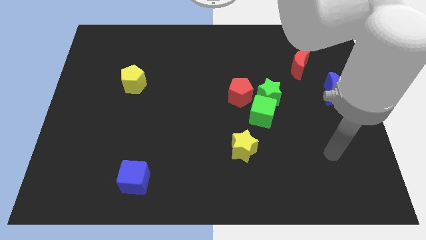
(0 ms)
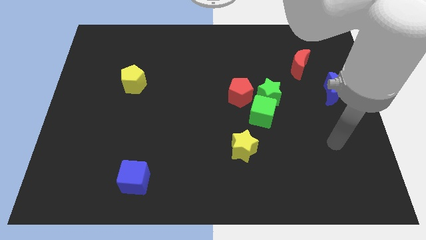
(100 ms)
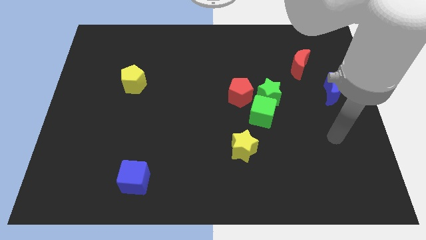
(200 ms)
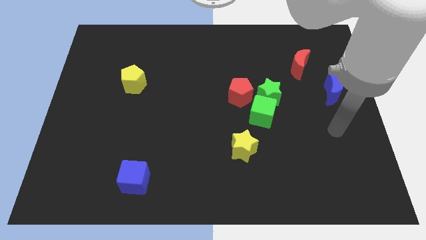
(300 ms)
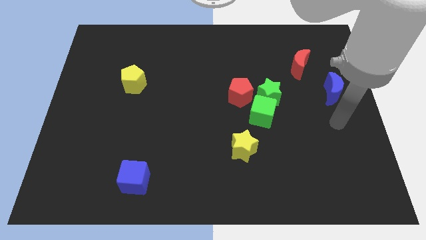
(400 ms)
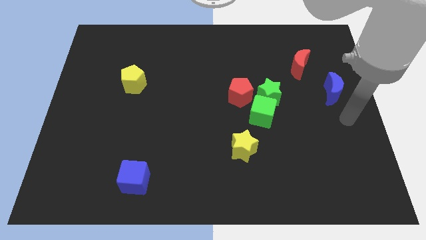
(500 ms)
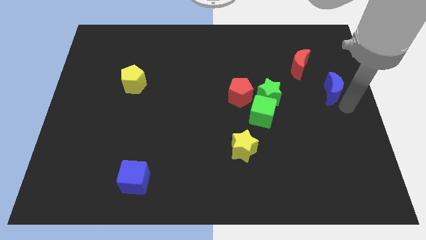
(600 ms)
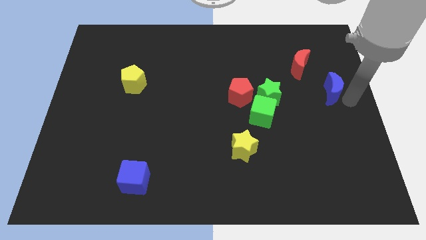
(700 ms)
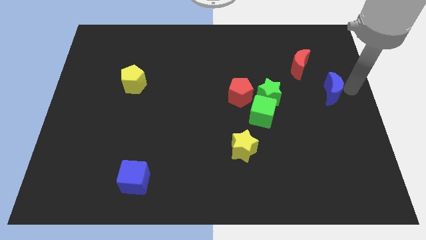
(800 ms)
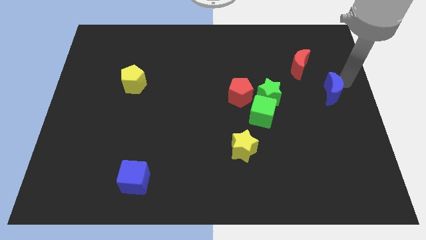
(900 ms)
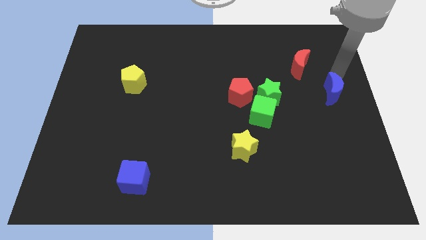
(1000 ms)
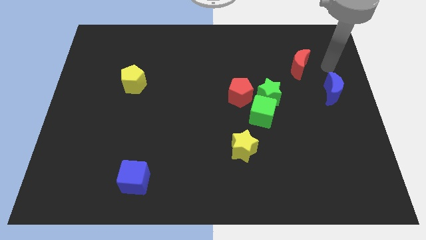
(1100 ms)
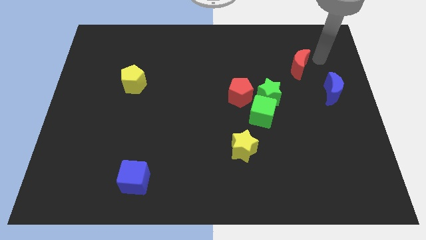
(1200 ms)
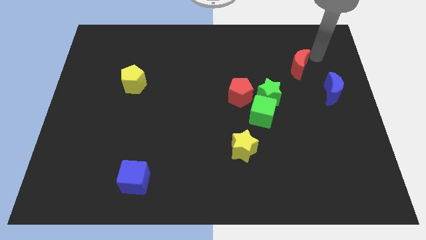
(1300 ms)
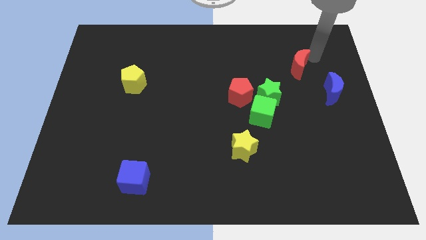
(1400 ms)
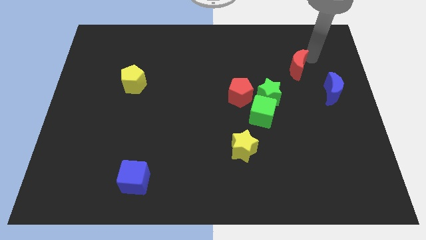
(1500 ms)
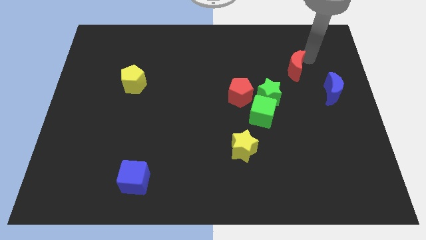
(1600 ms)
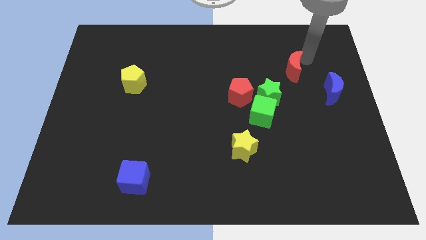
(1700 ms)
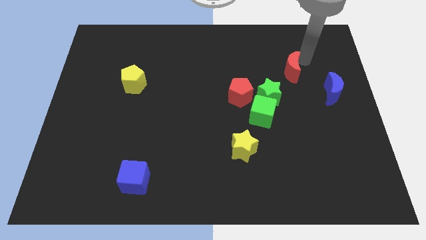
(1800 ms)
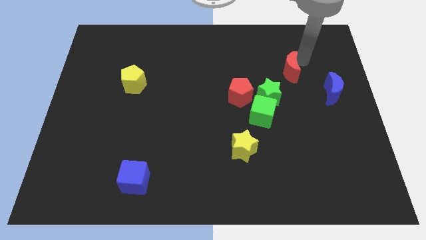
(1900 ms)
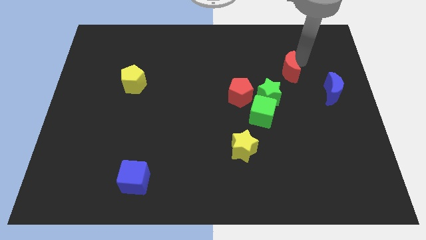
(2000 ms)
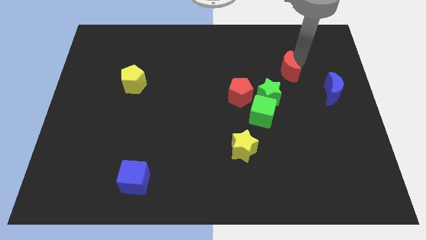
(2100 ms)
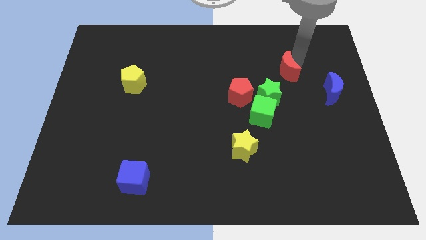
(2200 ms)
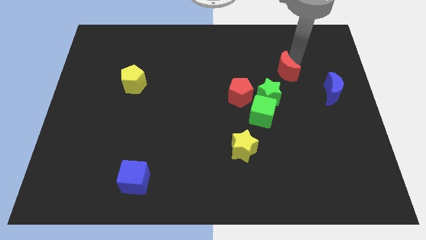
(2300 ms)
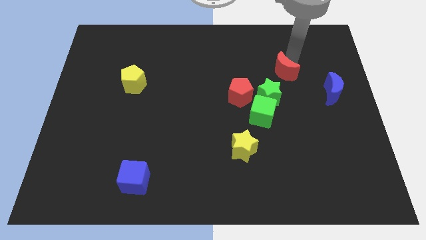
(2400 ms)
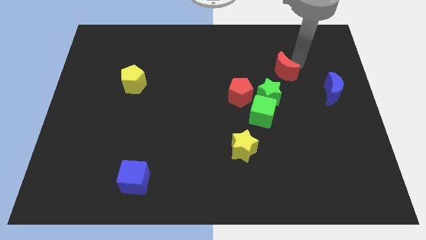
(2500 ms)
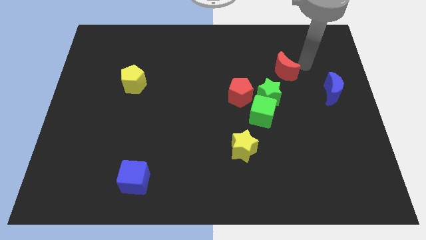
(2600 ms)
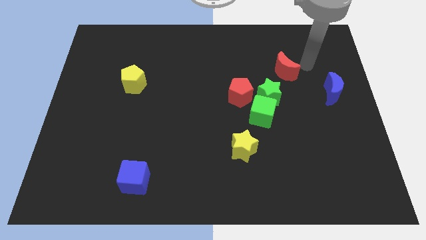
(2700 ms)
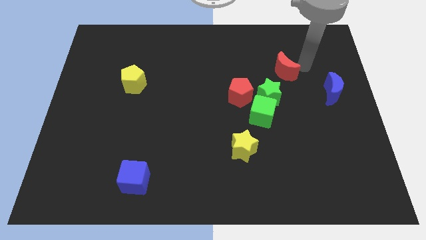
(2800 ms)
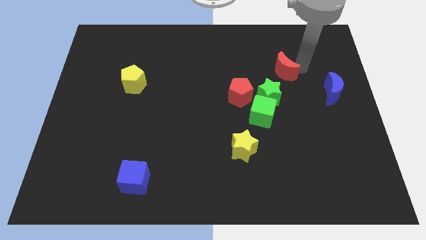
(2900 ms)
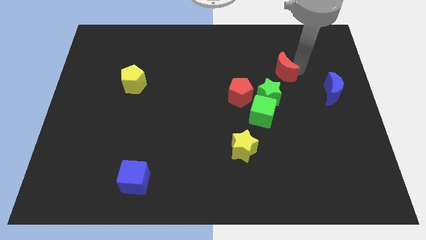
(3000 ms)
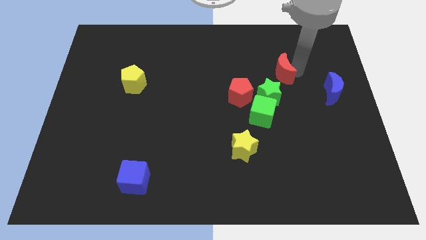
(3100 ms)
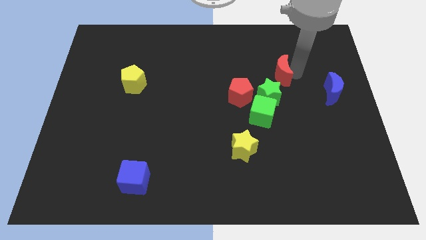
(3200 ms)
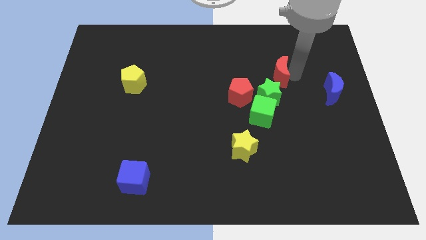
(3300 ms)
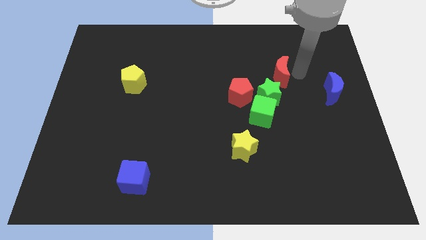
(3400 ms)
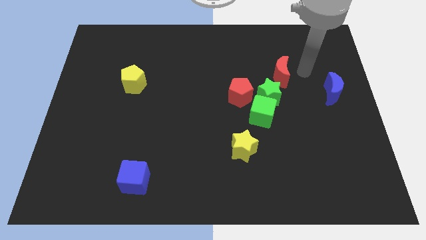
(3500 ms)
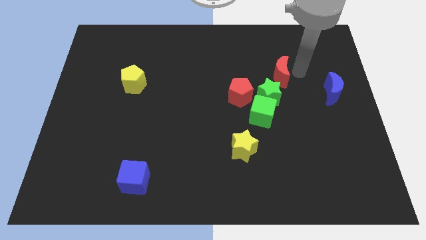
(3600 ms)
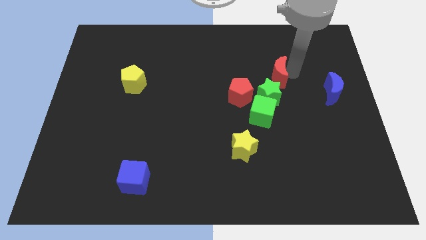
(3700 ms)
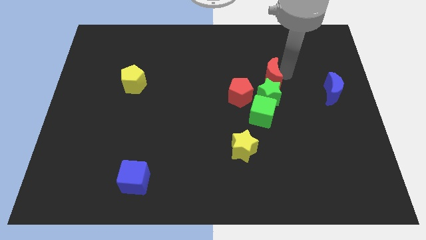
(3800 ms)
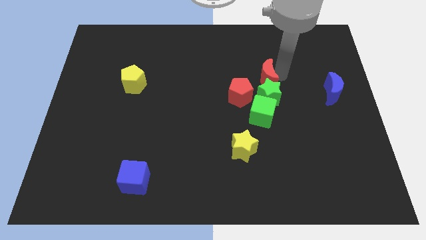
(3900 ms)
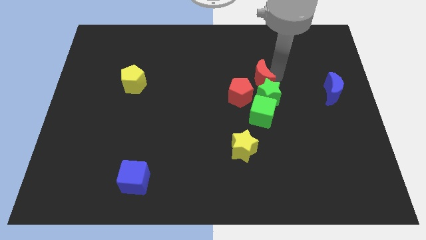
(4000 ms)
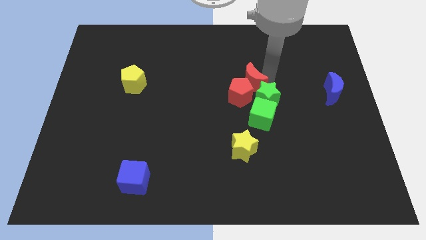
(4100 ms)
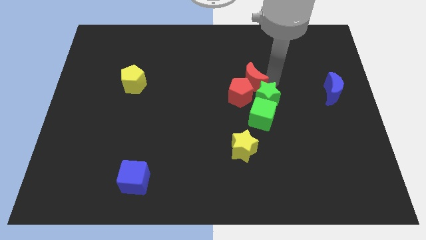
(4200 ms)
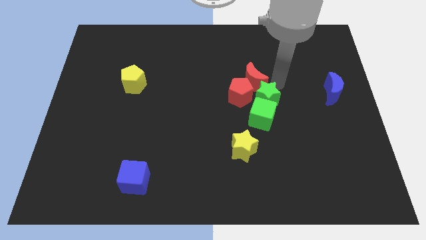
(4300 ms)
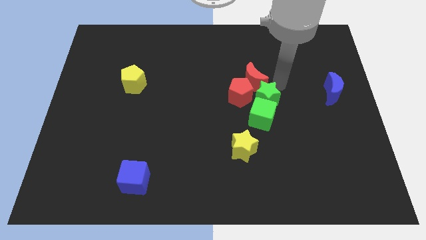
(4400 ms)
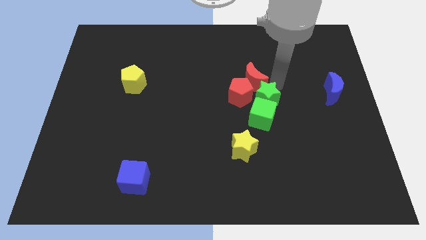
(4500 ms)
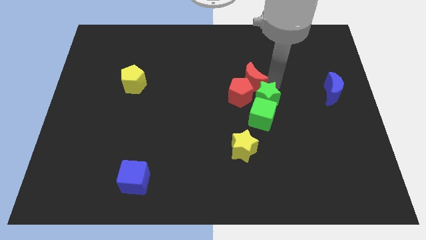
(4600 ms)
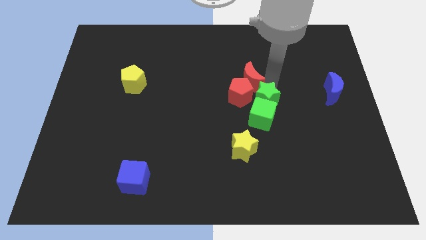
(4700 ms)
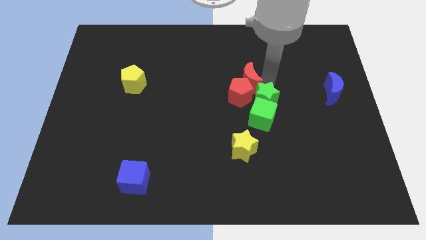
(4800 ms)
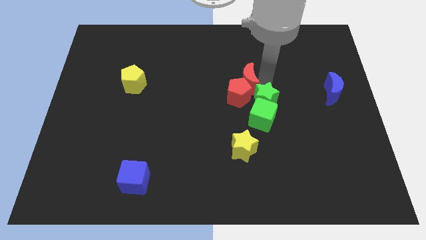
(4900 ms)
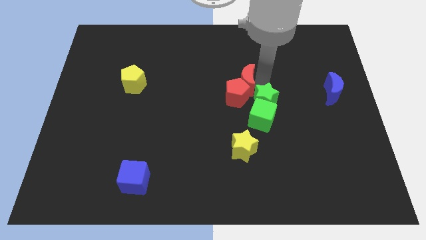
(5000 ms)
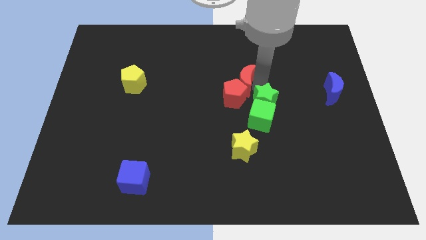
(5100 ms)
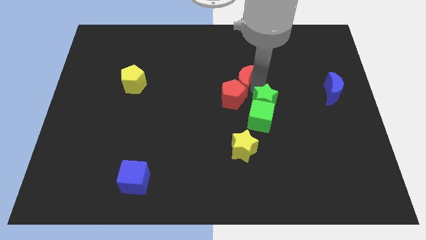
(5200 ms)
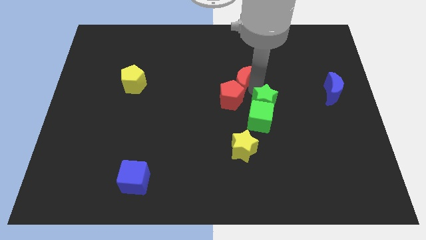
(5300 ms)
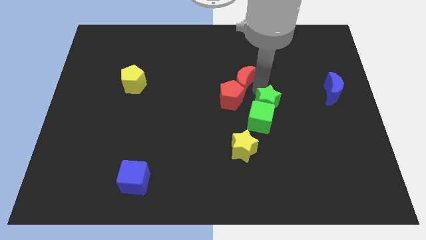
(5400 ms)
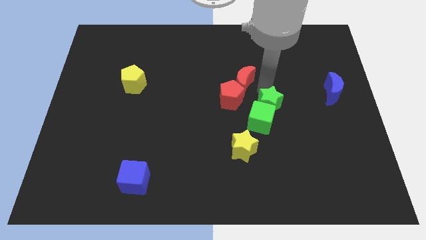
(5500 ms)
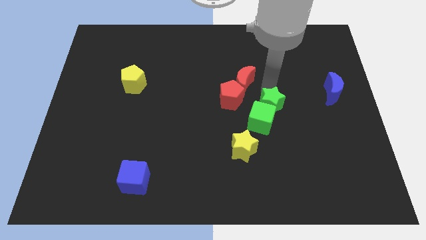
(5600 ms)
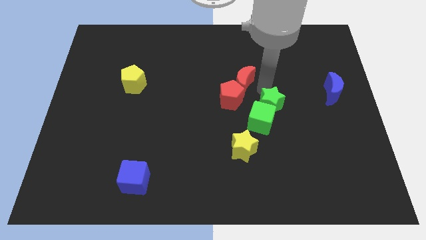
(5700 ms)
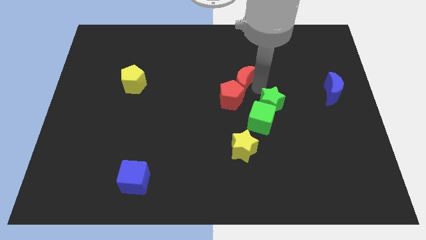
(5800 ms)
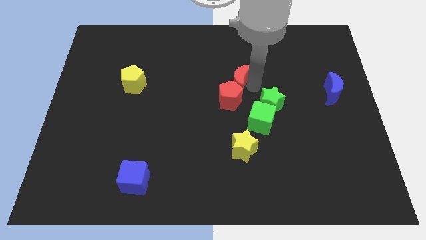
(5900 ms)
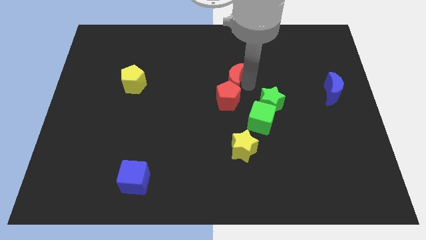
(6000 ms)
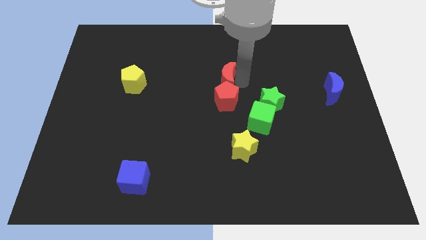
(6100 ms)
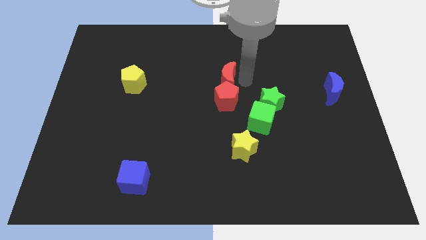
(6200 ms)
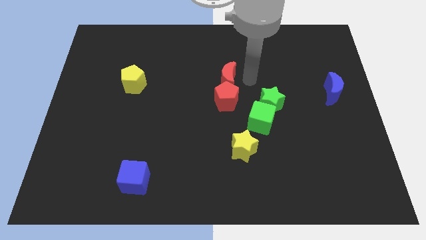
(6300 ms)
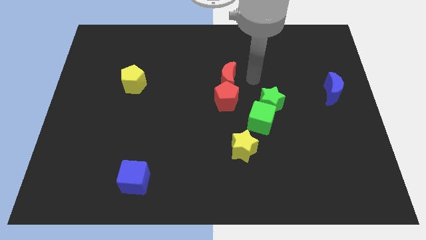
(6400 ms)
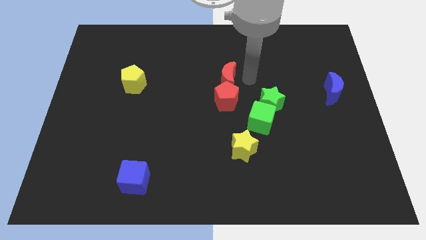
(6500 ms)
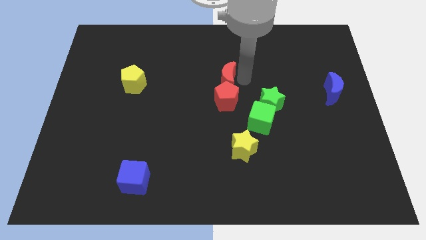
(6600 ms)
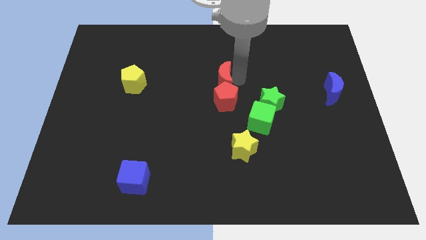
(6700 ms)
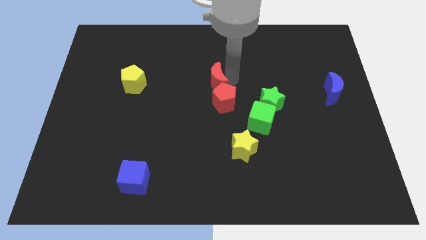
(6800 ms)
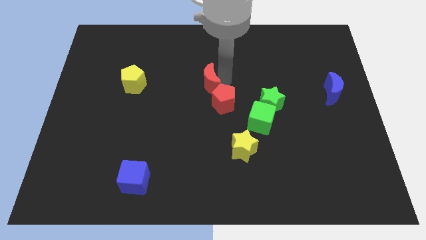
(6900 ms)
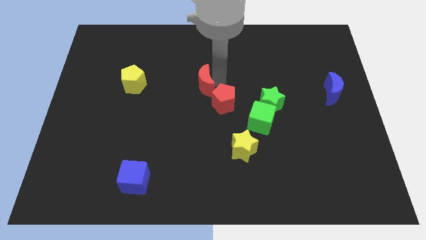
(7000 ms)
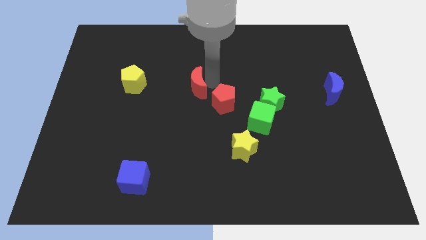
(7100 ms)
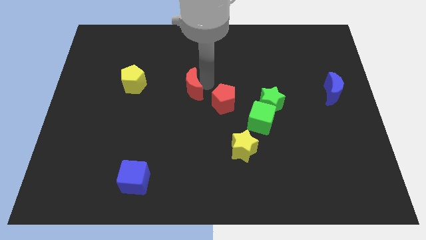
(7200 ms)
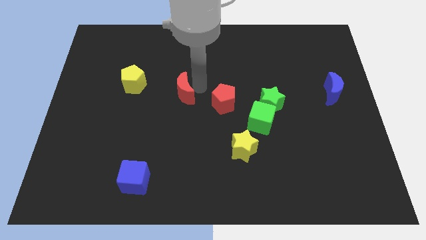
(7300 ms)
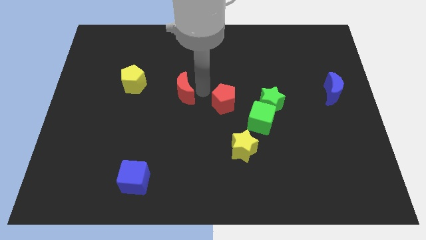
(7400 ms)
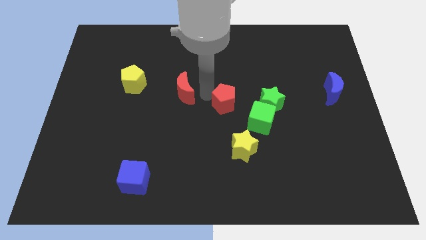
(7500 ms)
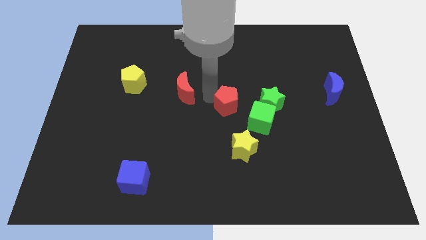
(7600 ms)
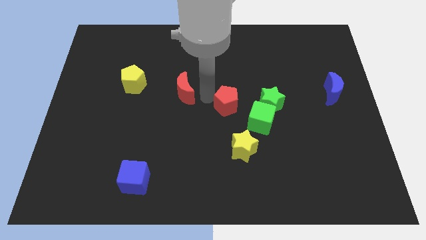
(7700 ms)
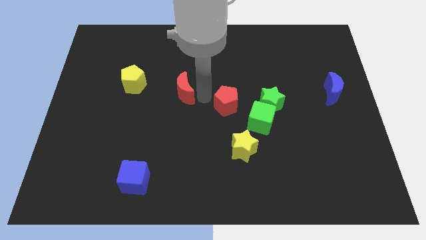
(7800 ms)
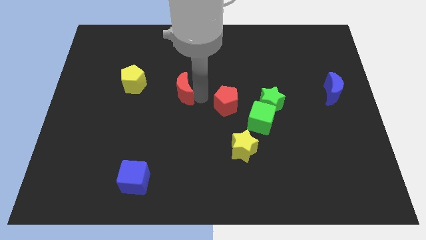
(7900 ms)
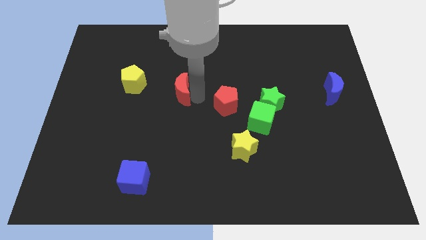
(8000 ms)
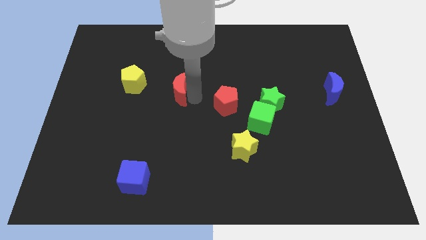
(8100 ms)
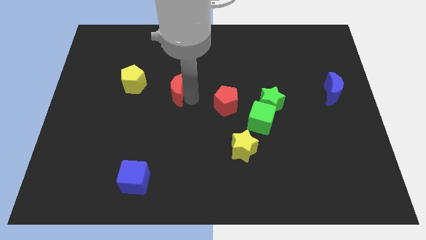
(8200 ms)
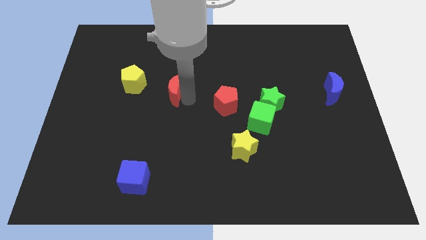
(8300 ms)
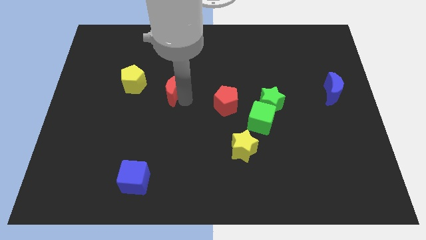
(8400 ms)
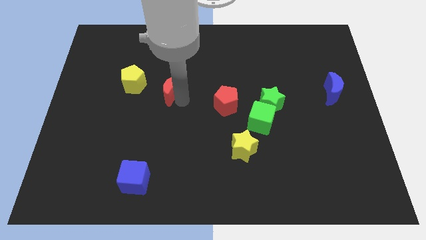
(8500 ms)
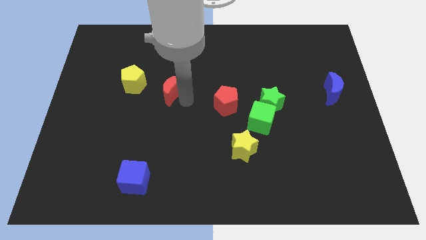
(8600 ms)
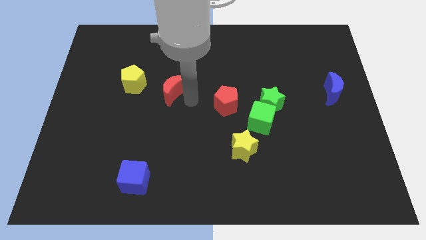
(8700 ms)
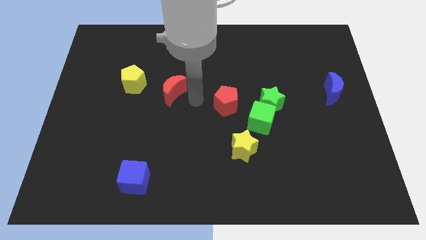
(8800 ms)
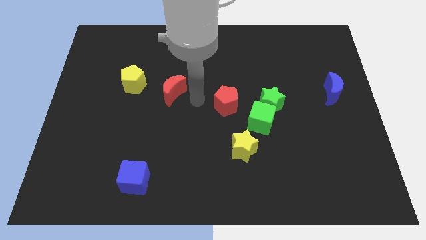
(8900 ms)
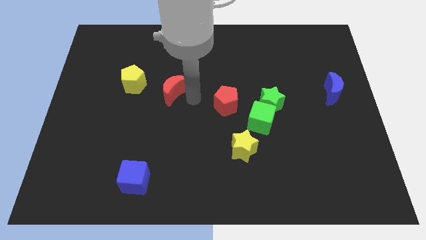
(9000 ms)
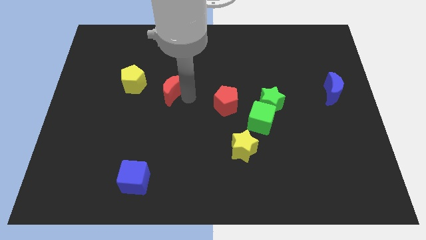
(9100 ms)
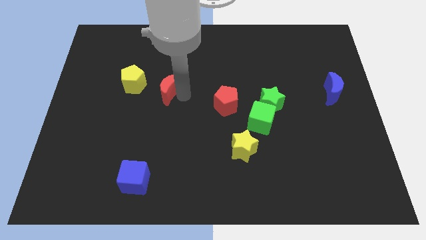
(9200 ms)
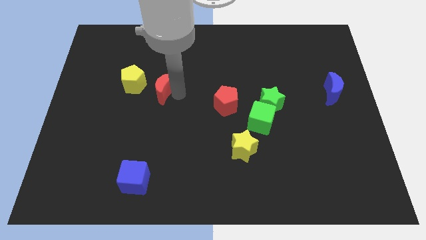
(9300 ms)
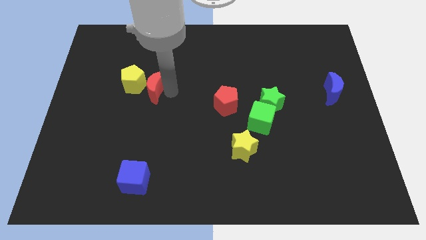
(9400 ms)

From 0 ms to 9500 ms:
move the red moon towards the yellow pentagon
